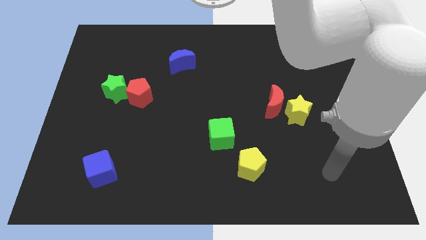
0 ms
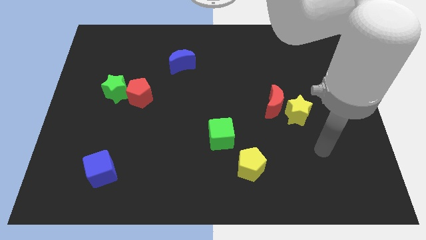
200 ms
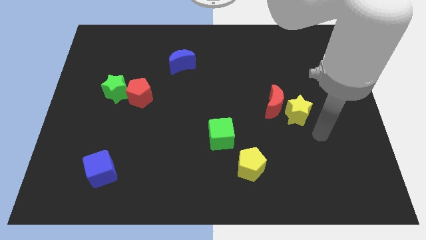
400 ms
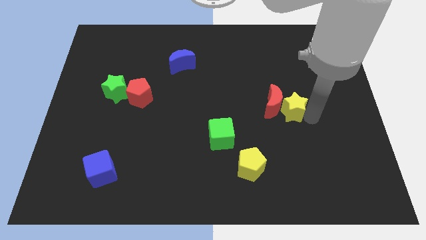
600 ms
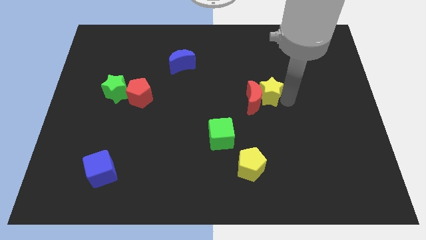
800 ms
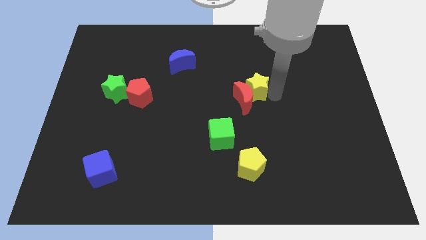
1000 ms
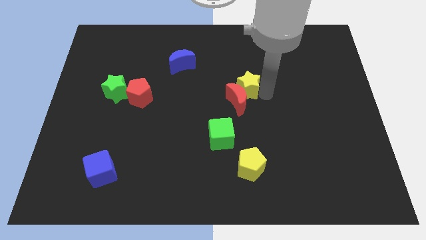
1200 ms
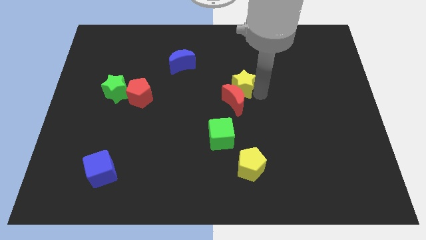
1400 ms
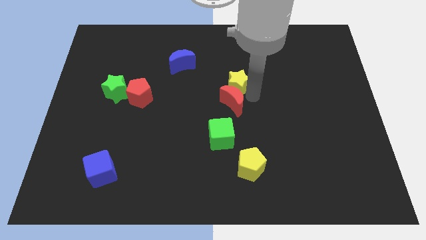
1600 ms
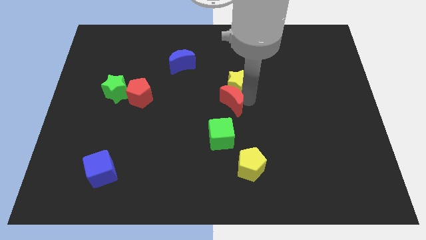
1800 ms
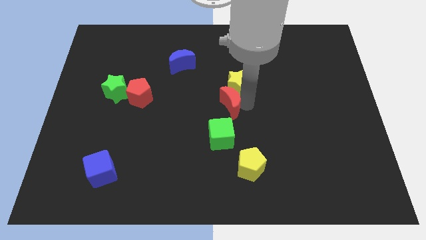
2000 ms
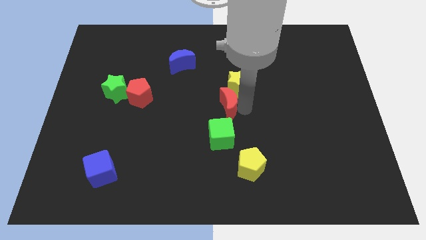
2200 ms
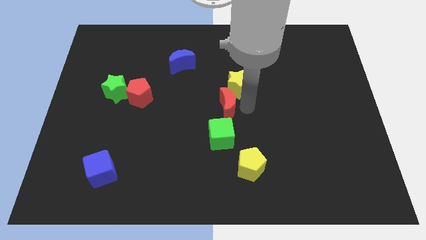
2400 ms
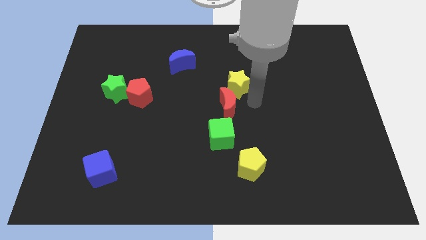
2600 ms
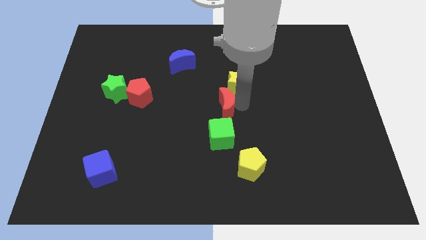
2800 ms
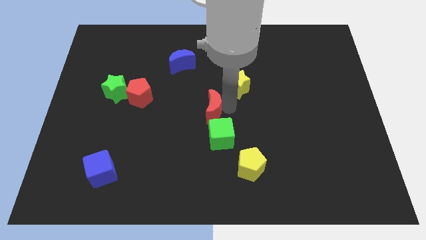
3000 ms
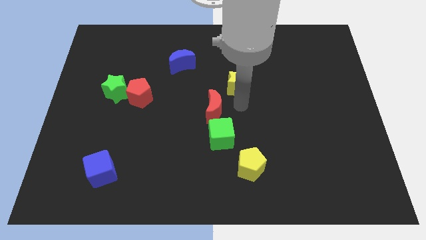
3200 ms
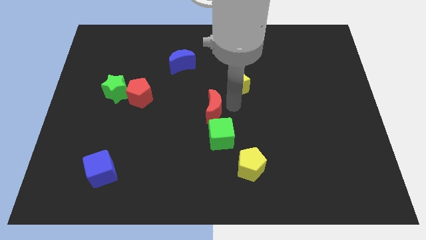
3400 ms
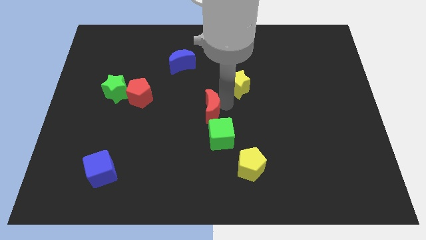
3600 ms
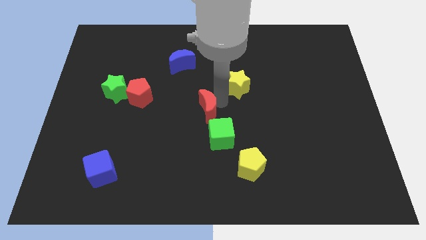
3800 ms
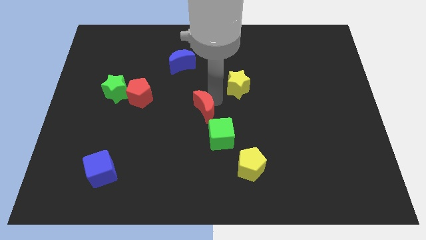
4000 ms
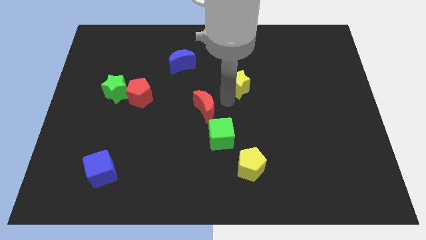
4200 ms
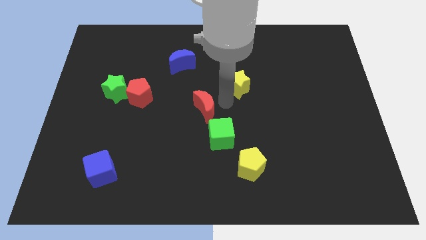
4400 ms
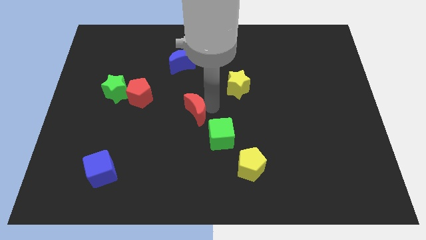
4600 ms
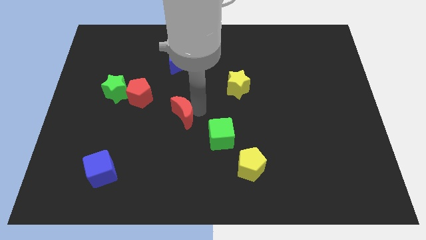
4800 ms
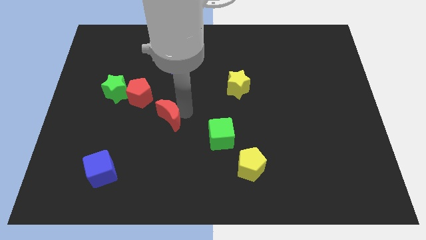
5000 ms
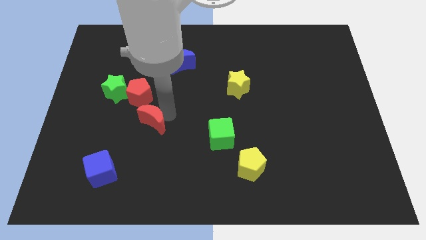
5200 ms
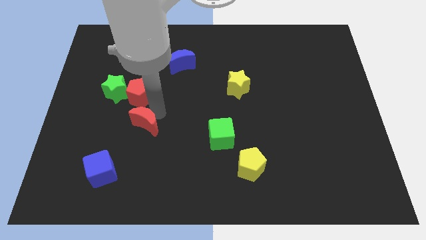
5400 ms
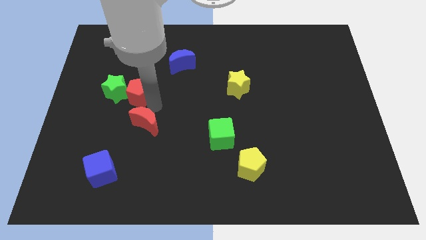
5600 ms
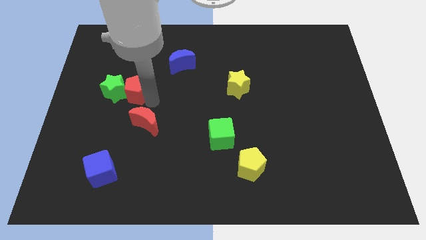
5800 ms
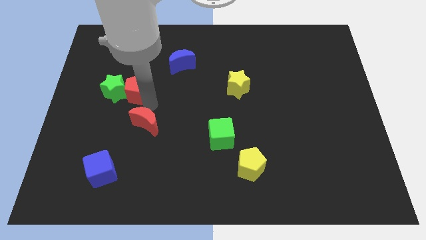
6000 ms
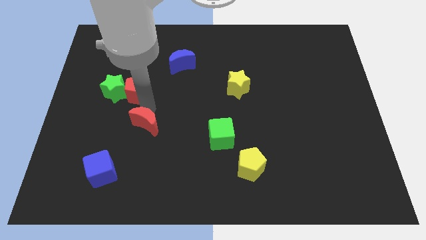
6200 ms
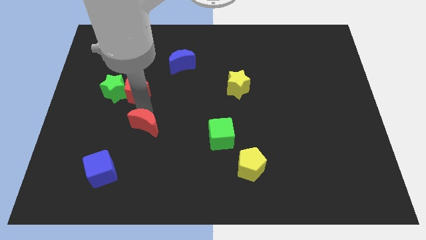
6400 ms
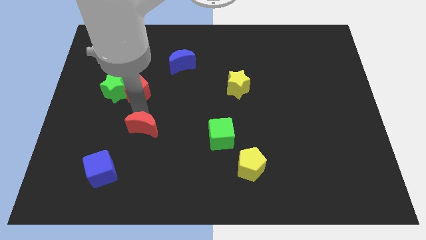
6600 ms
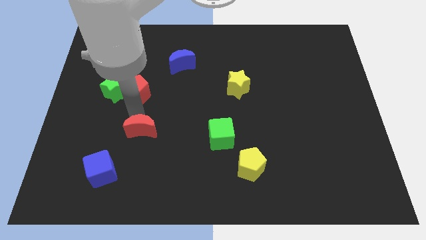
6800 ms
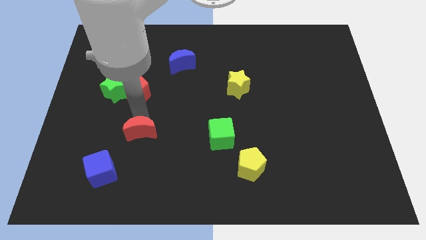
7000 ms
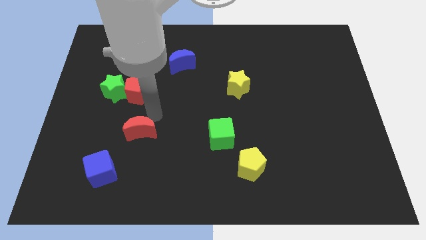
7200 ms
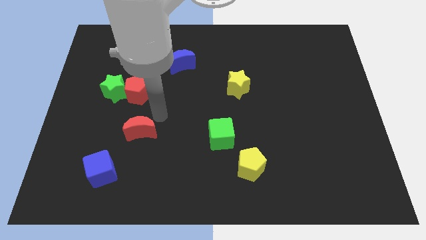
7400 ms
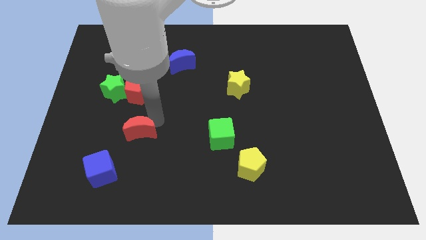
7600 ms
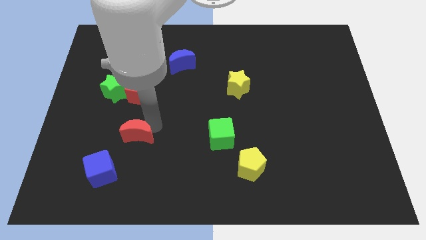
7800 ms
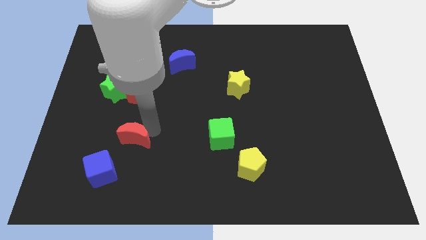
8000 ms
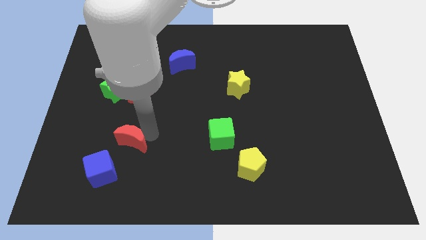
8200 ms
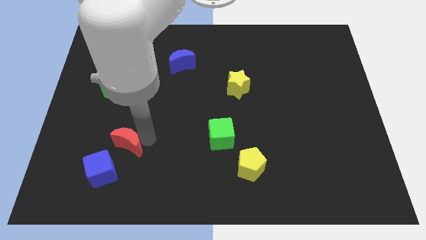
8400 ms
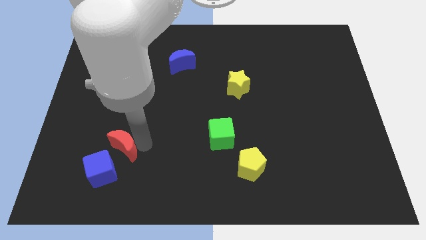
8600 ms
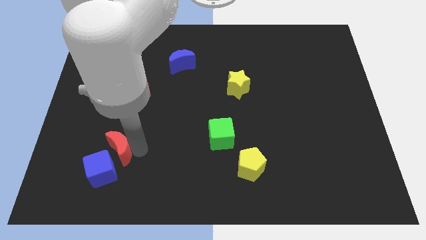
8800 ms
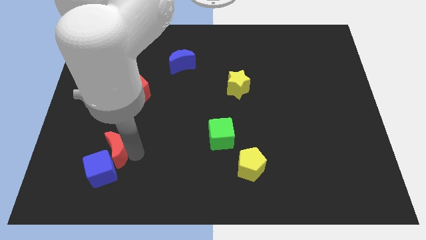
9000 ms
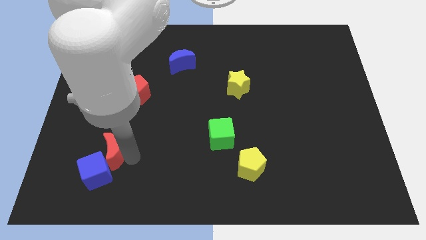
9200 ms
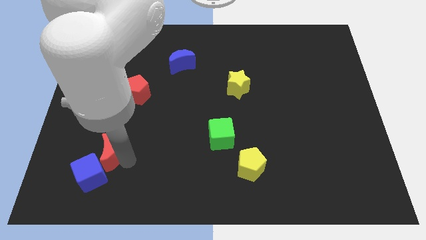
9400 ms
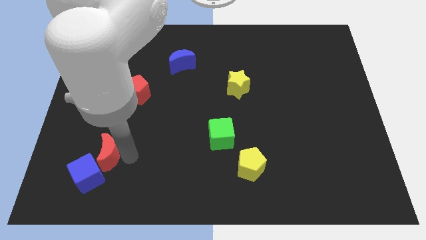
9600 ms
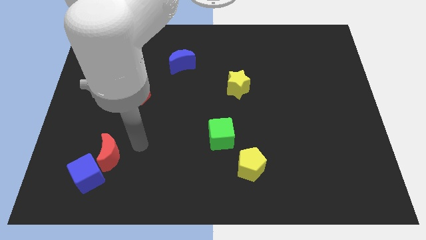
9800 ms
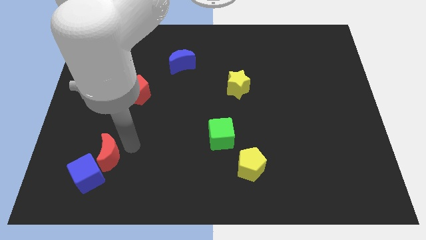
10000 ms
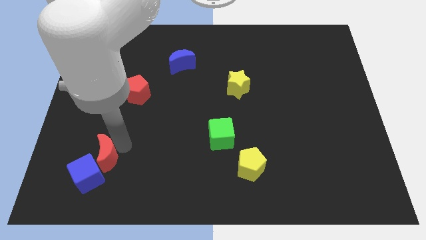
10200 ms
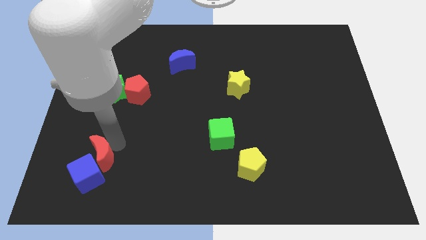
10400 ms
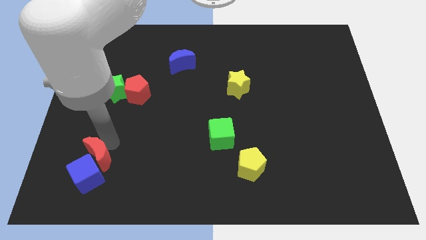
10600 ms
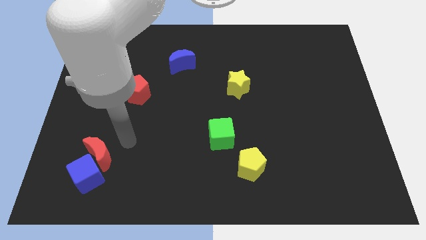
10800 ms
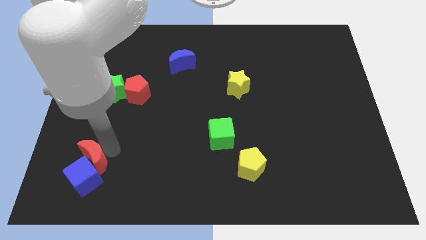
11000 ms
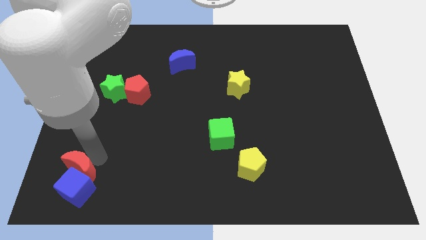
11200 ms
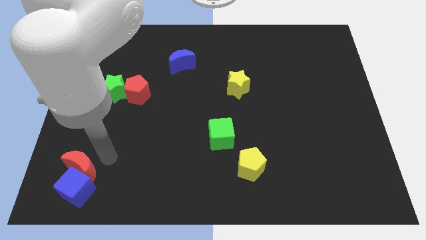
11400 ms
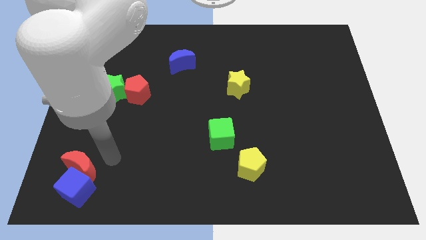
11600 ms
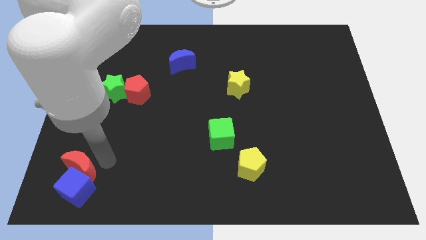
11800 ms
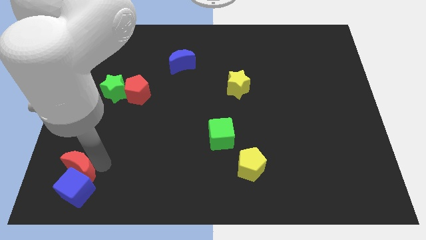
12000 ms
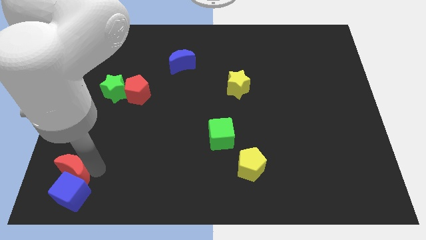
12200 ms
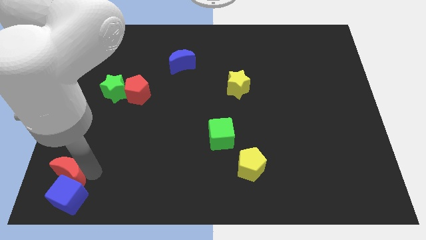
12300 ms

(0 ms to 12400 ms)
move the red moon to the bottom left
